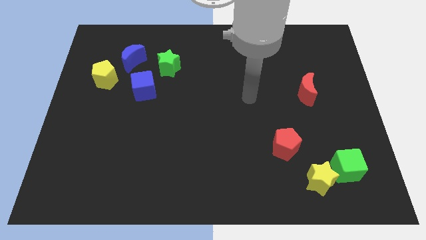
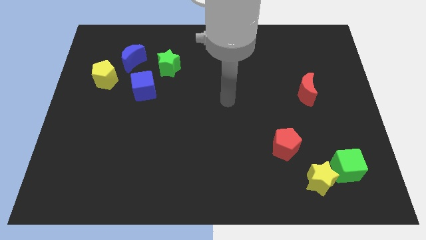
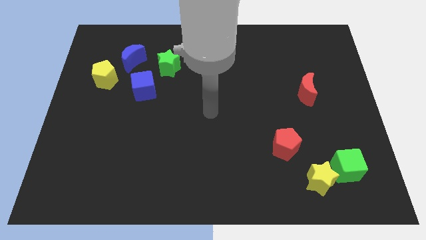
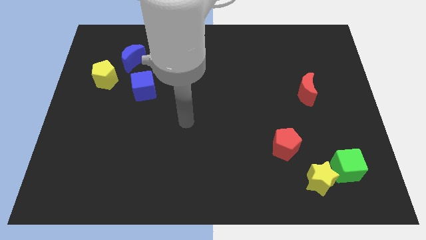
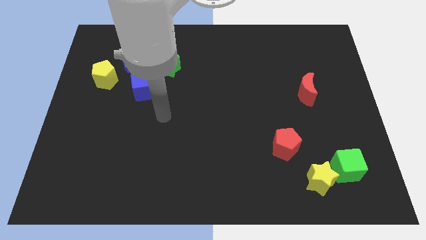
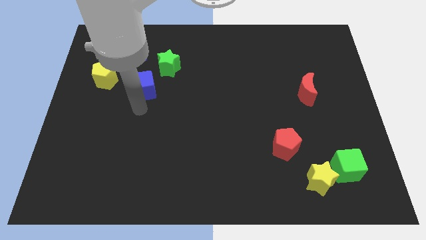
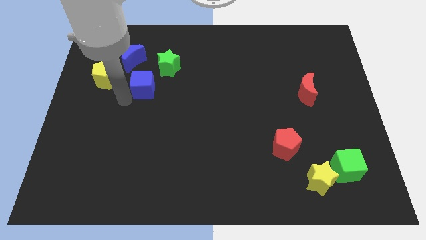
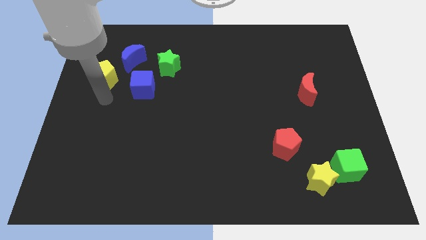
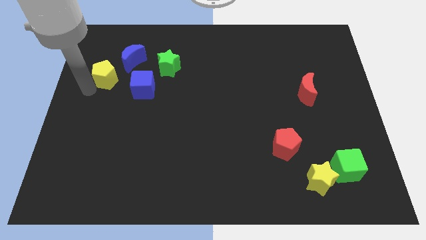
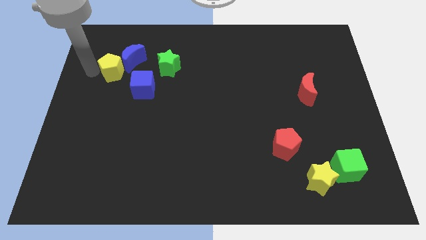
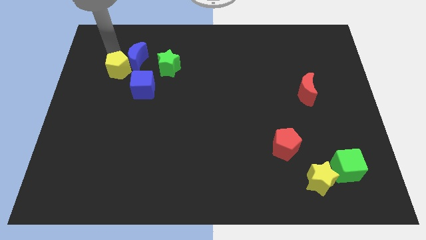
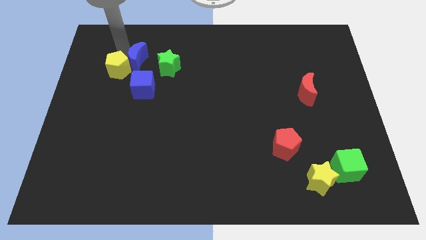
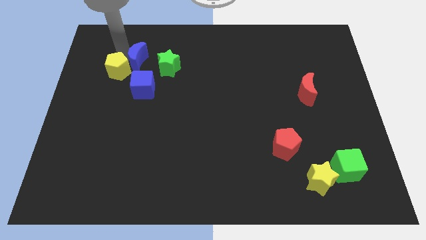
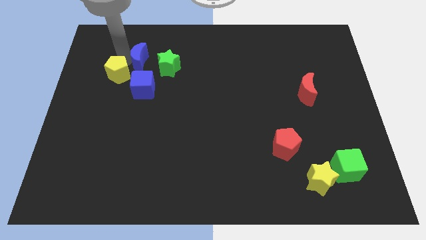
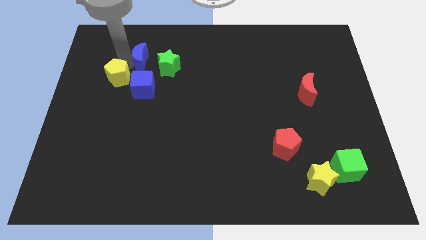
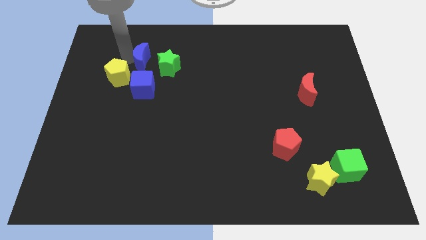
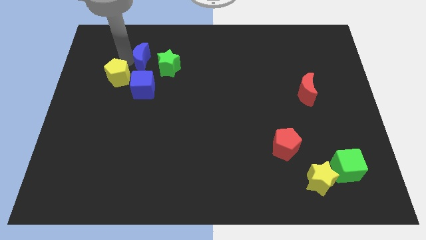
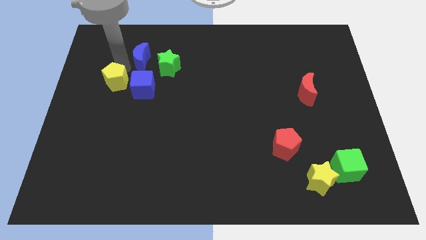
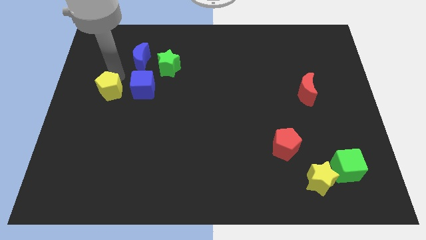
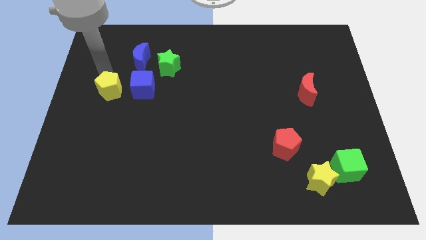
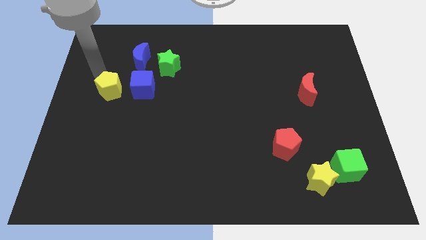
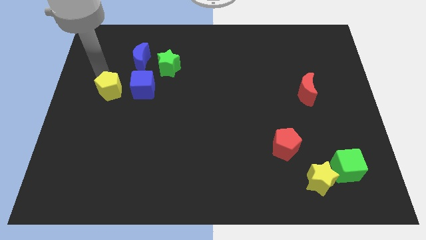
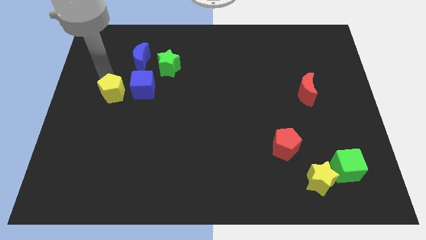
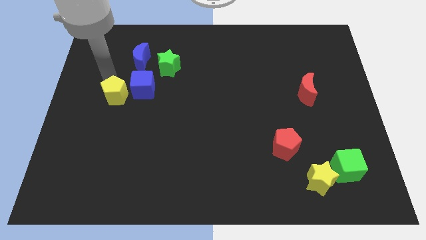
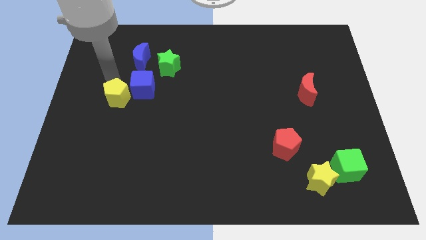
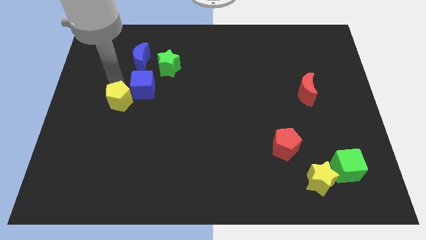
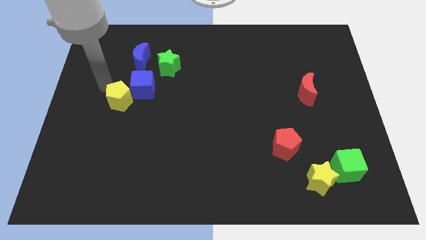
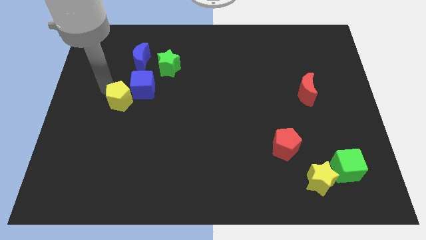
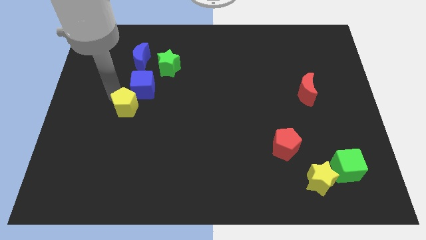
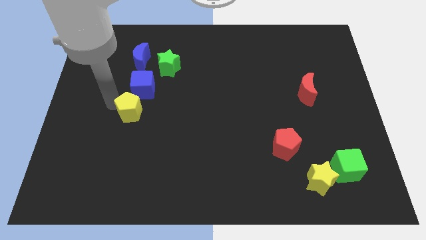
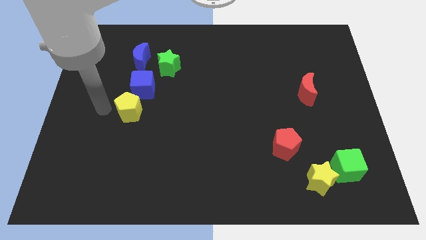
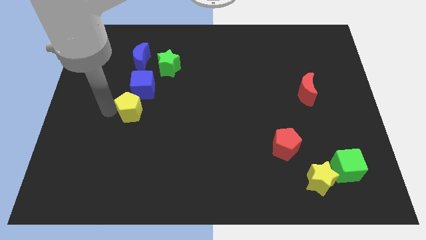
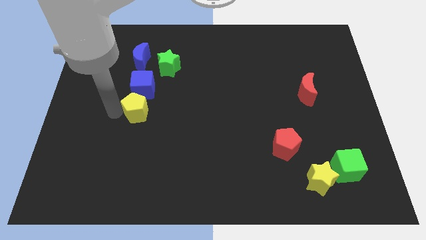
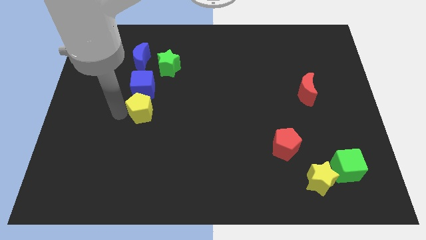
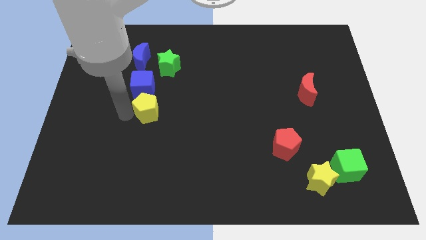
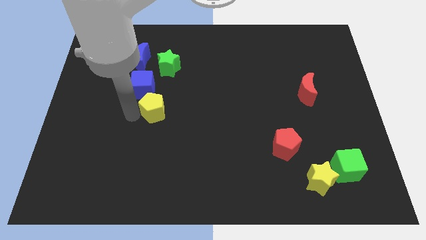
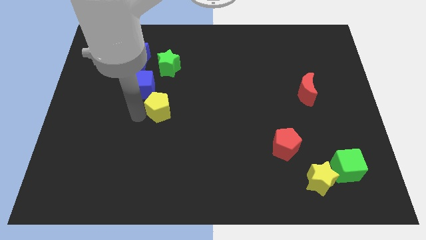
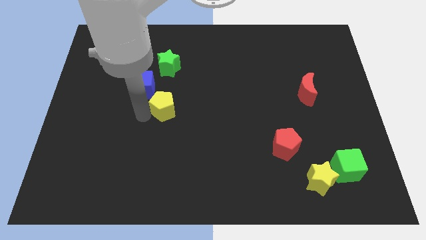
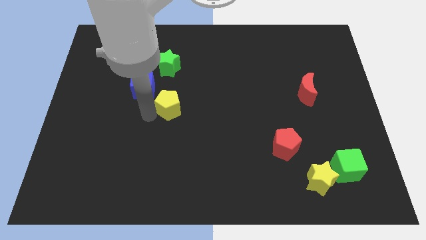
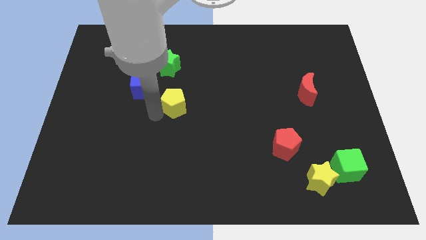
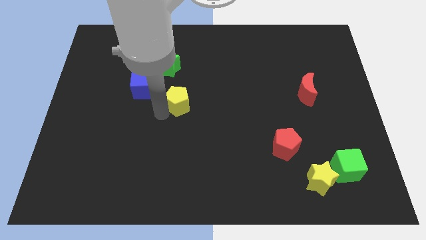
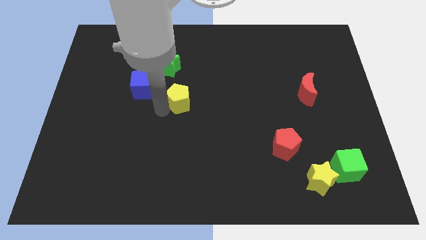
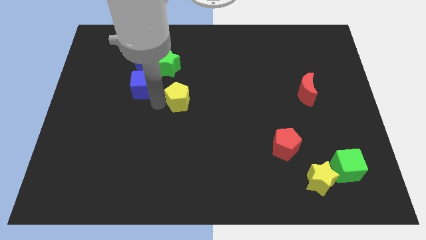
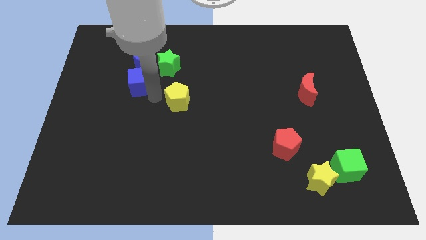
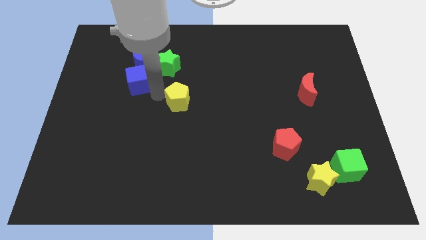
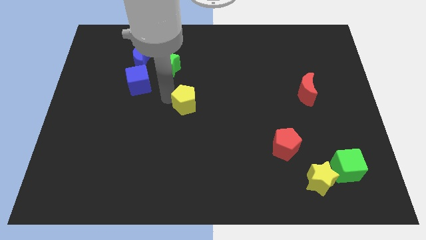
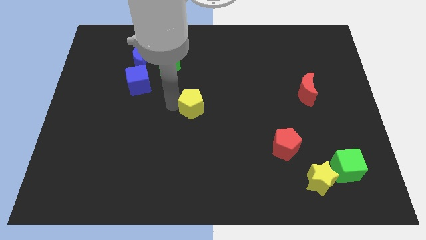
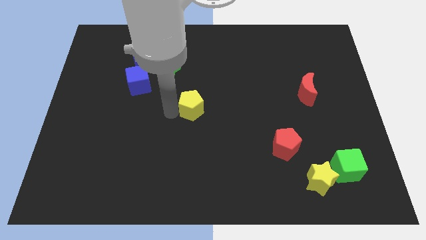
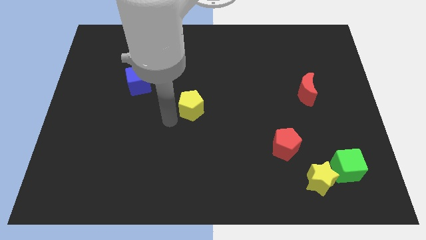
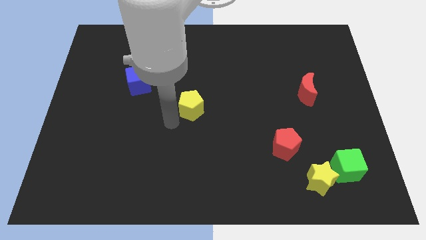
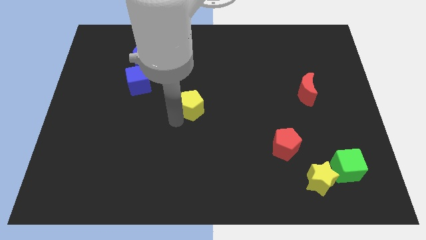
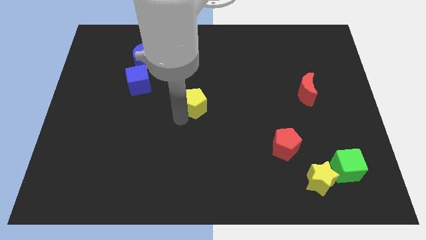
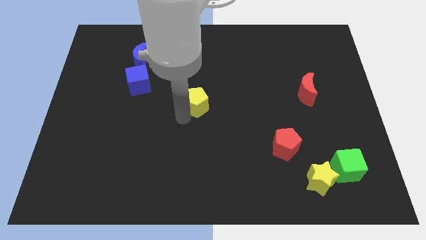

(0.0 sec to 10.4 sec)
move the yellow pentagon to the right

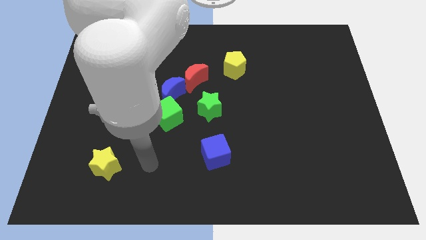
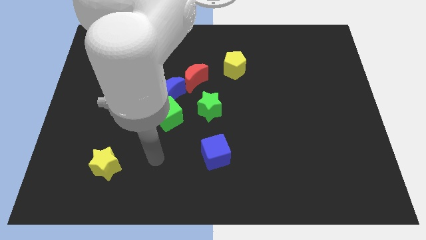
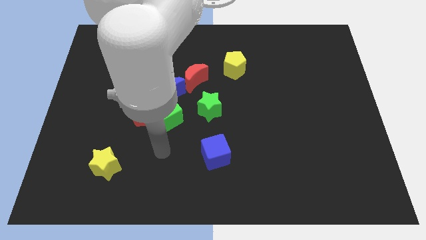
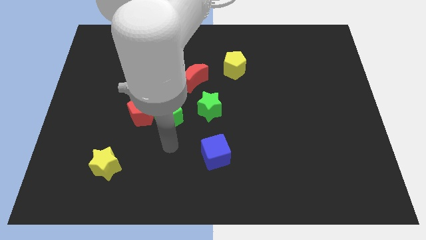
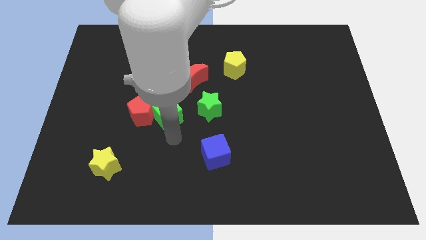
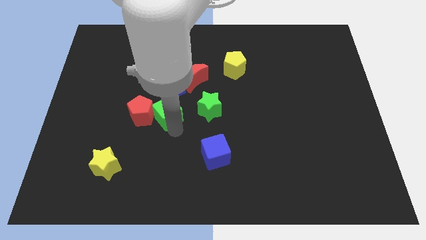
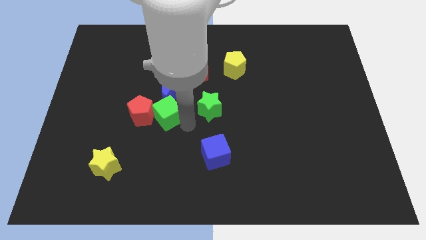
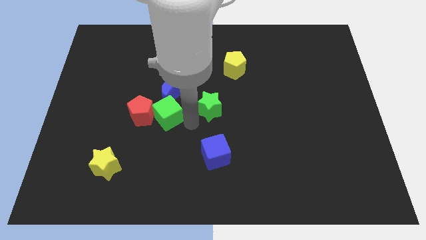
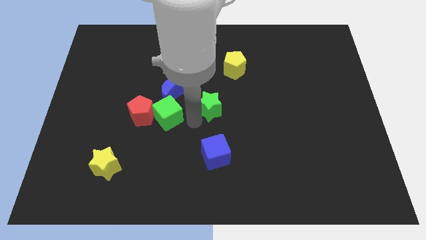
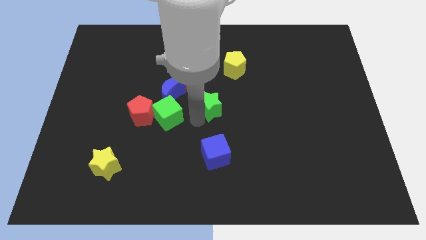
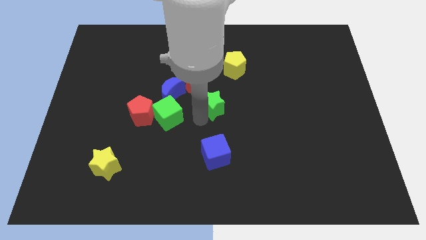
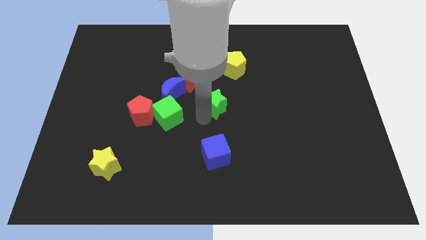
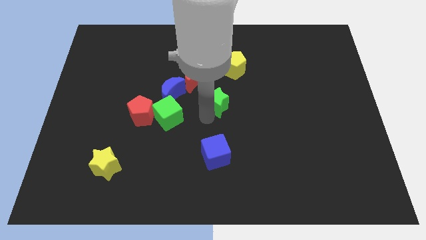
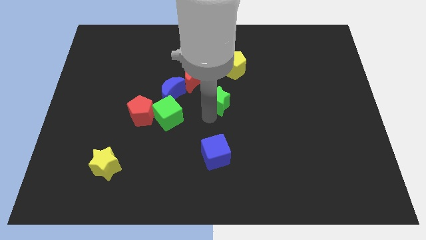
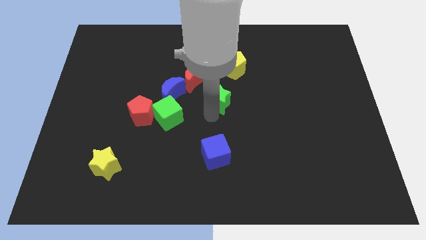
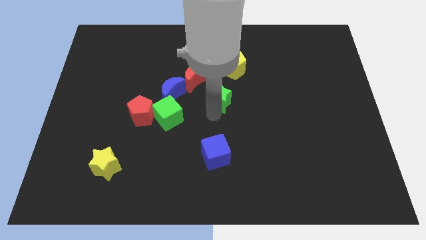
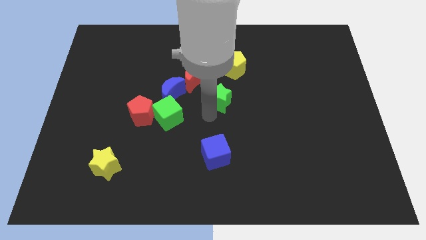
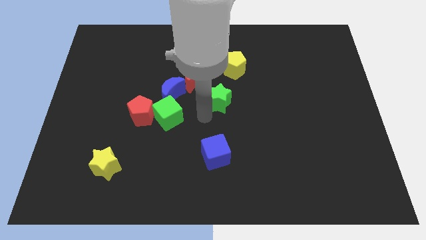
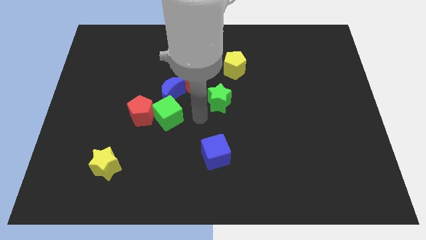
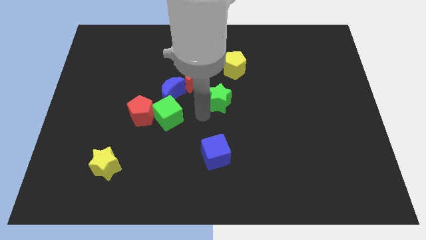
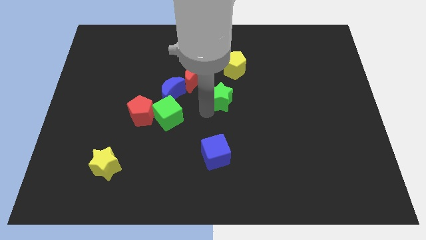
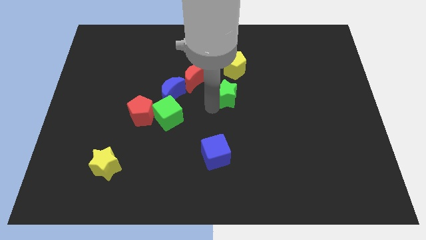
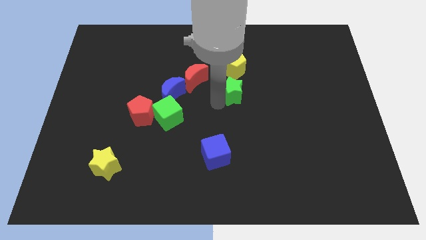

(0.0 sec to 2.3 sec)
slide the green star slightly diagonally up and right

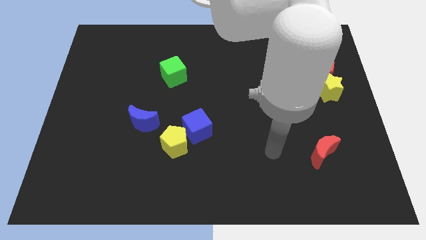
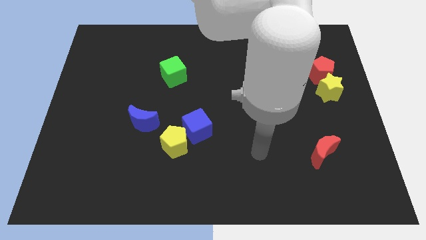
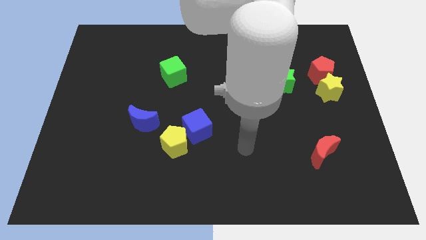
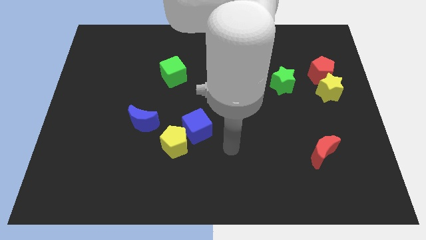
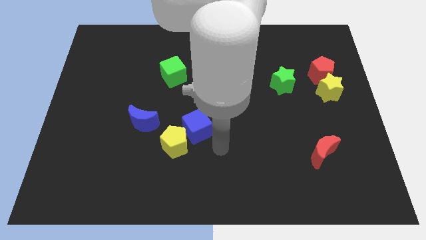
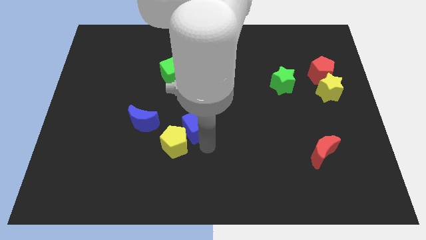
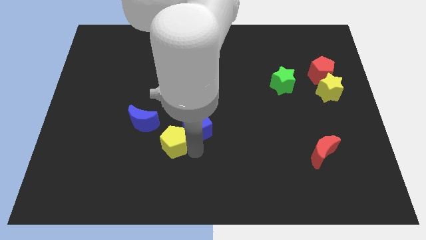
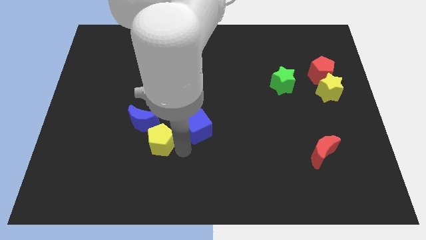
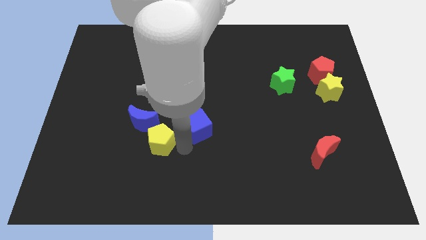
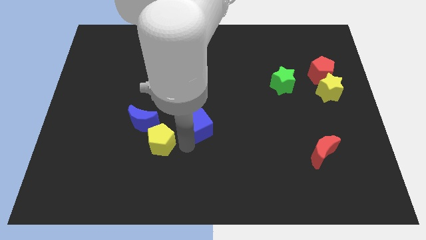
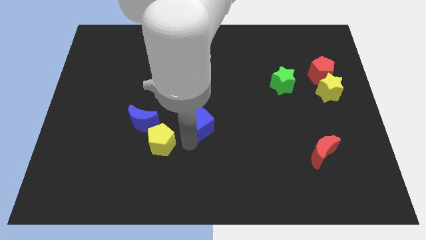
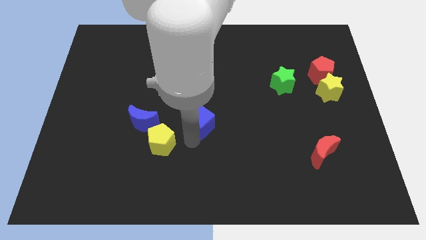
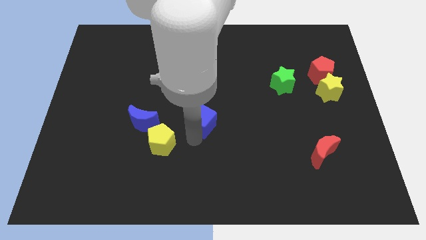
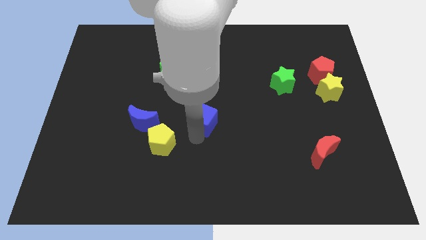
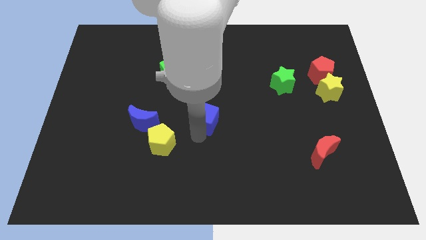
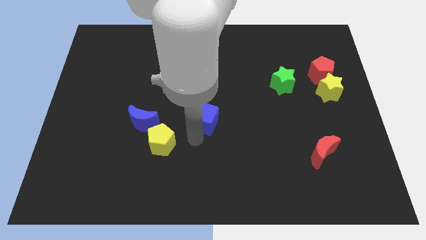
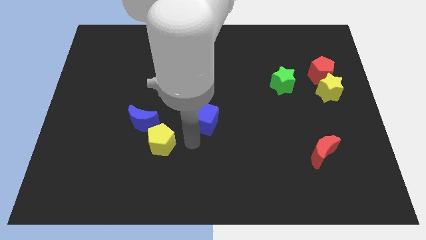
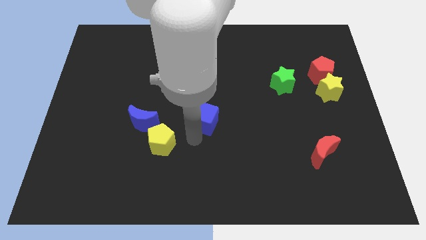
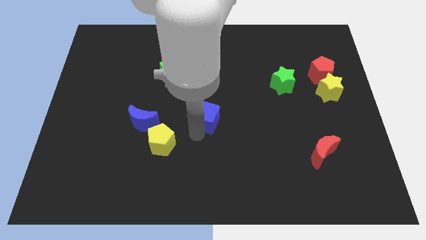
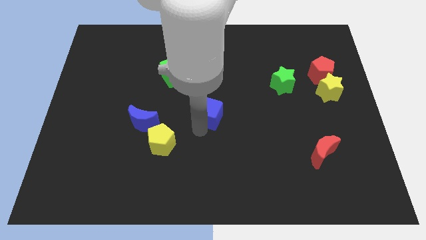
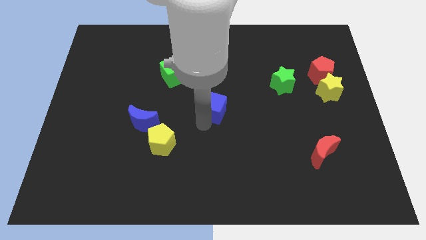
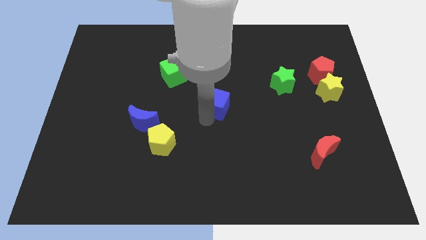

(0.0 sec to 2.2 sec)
slightly move the blue cube diagonally upwards and right
